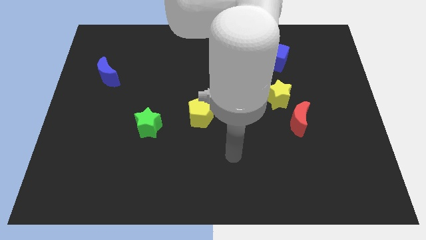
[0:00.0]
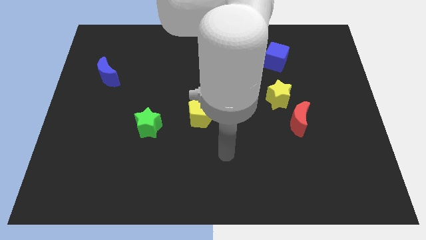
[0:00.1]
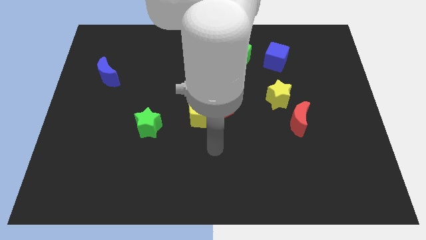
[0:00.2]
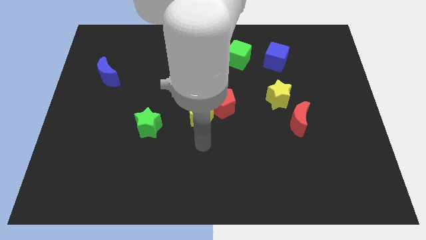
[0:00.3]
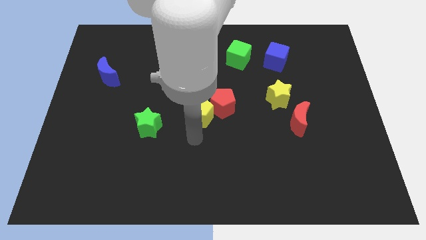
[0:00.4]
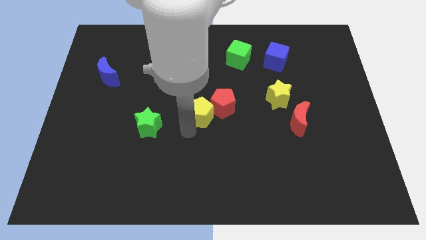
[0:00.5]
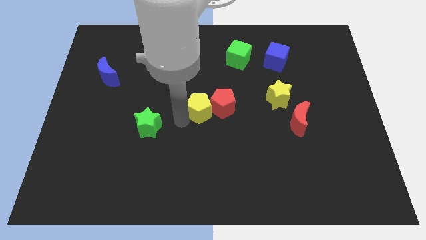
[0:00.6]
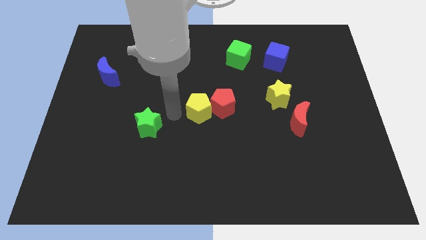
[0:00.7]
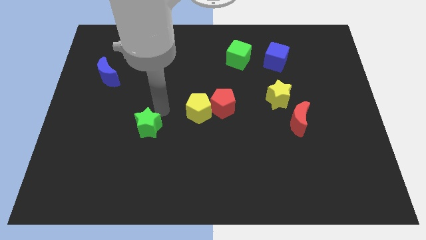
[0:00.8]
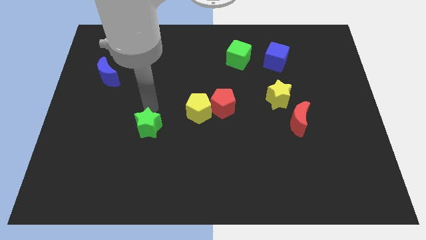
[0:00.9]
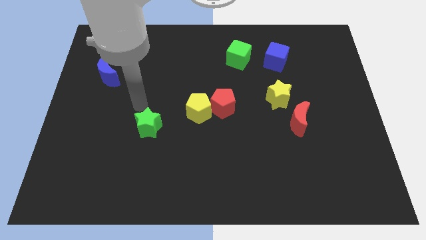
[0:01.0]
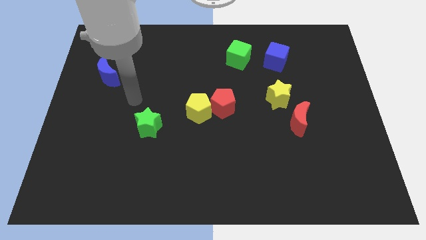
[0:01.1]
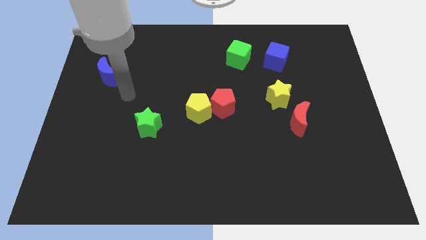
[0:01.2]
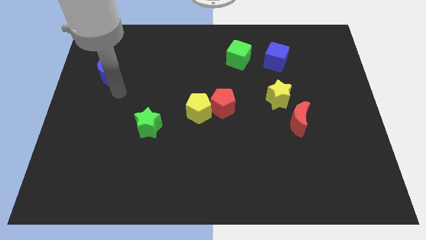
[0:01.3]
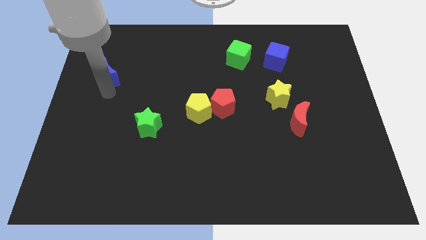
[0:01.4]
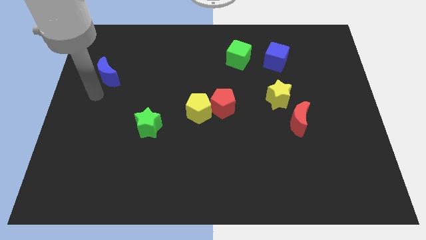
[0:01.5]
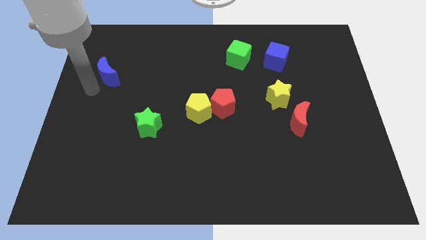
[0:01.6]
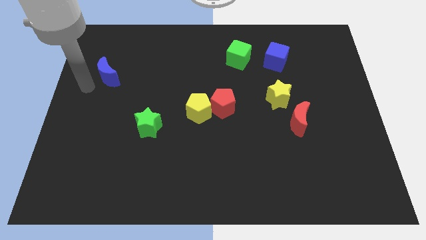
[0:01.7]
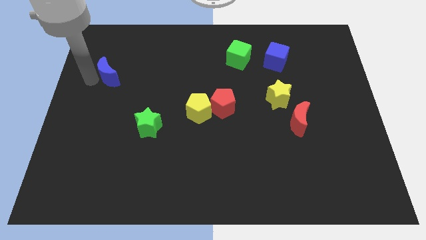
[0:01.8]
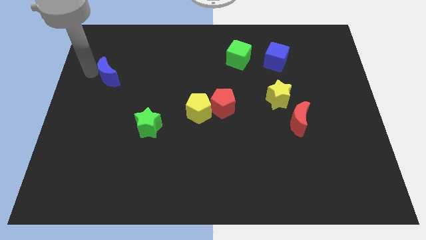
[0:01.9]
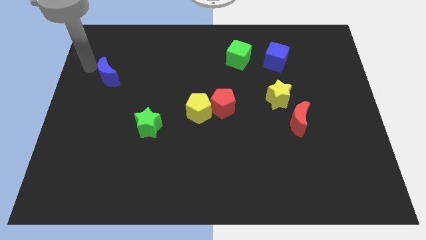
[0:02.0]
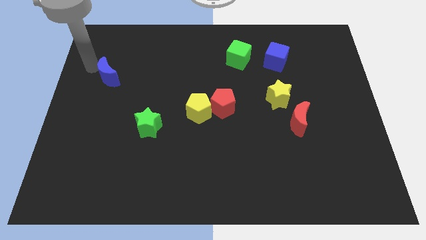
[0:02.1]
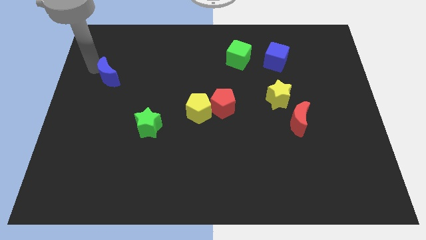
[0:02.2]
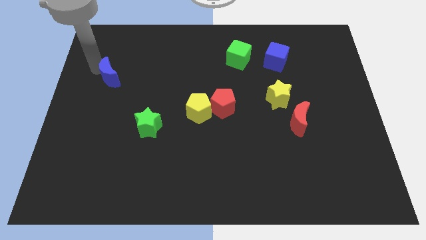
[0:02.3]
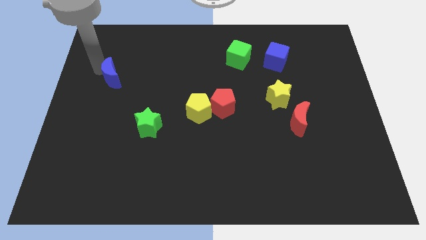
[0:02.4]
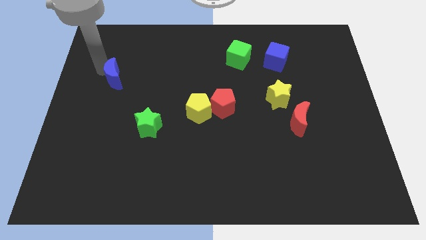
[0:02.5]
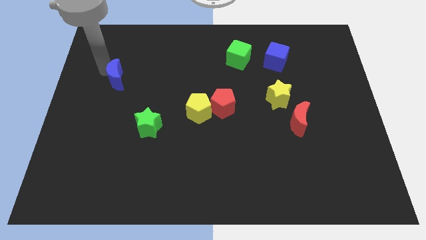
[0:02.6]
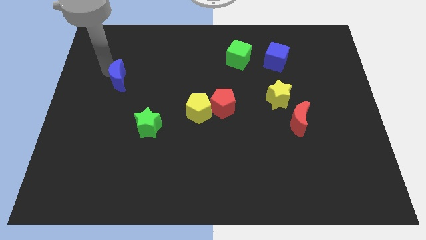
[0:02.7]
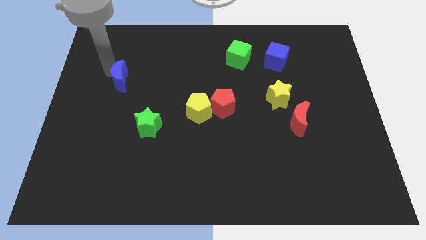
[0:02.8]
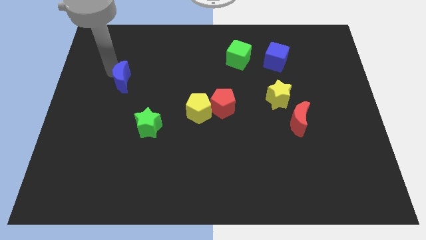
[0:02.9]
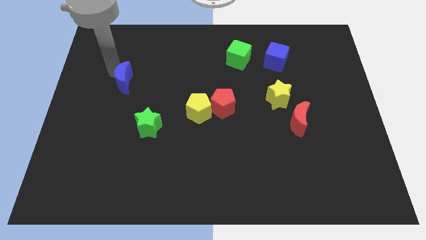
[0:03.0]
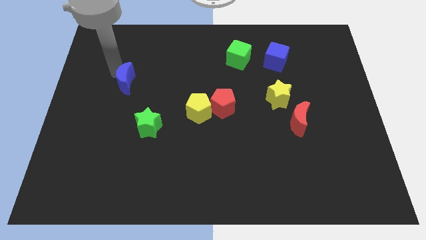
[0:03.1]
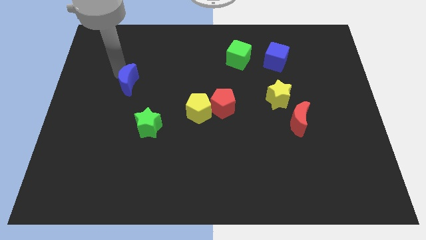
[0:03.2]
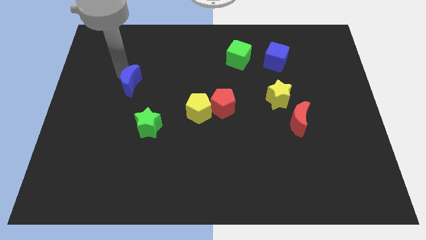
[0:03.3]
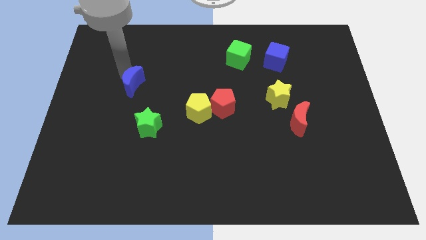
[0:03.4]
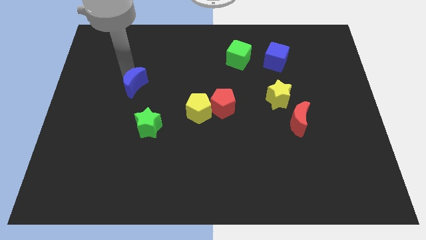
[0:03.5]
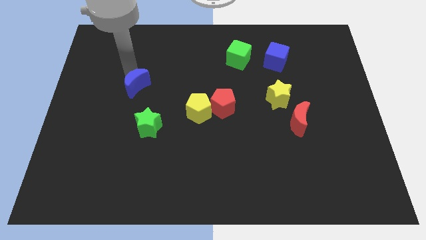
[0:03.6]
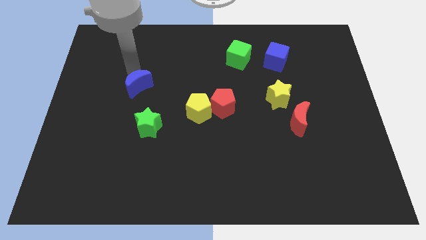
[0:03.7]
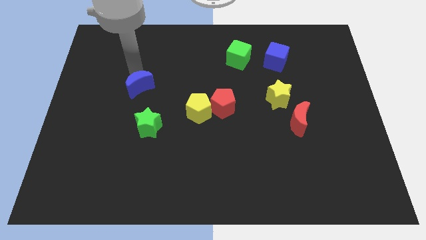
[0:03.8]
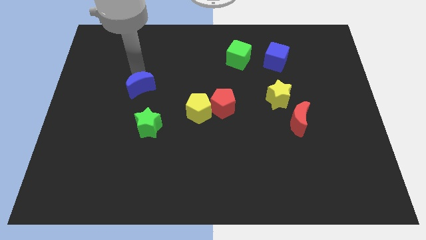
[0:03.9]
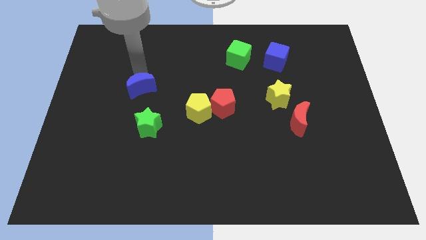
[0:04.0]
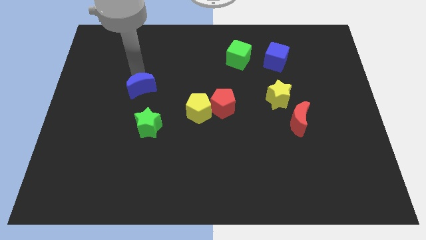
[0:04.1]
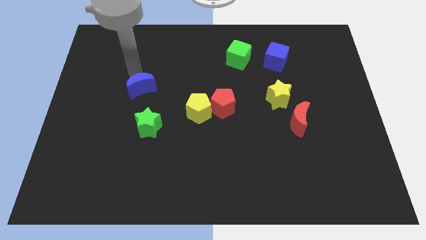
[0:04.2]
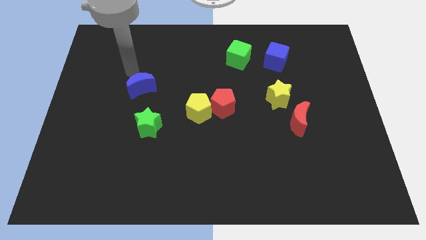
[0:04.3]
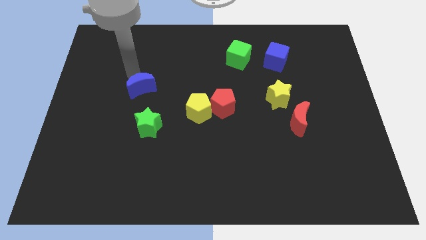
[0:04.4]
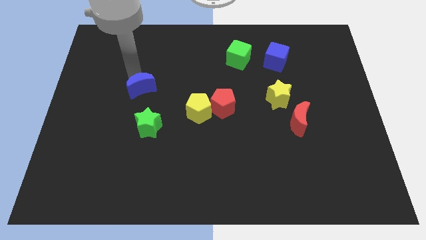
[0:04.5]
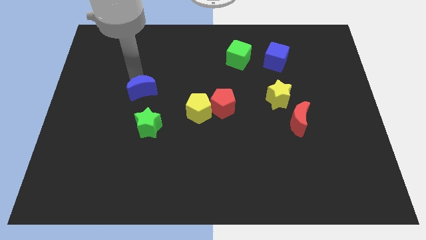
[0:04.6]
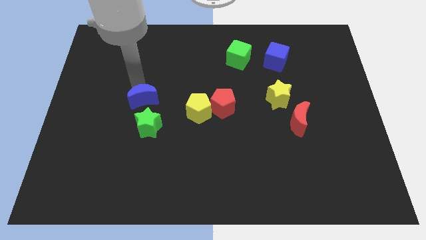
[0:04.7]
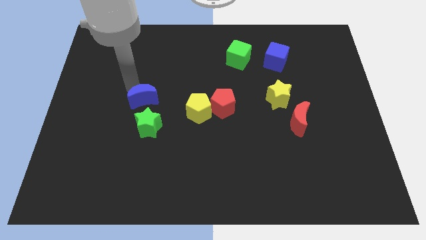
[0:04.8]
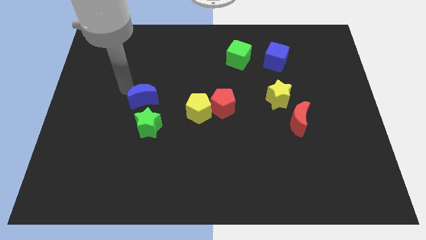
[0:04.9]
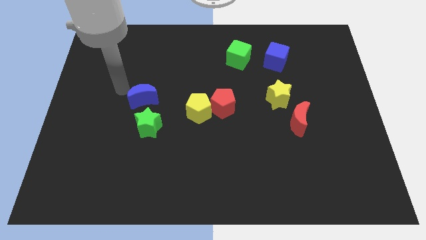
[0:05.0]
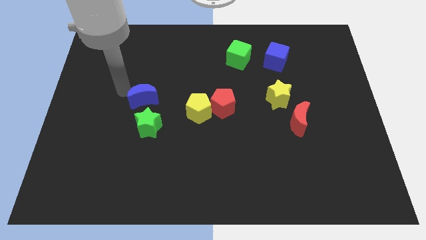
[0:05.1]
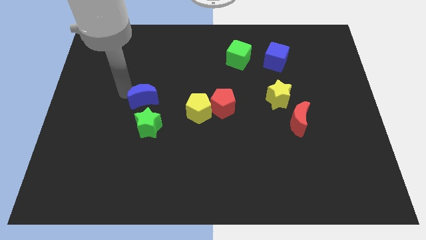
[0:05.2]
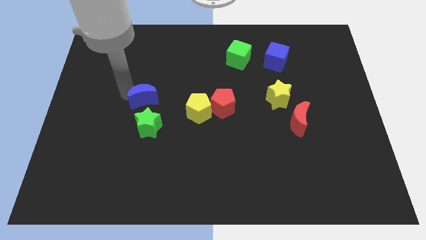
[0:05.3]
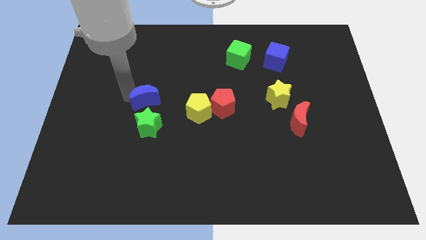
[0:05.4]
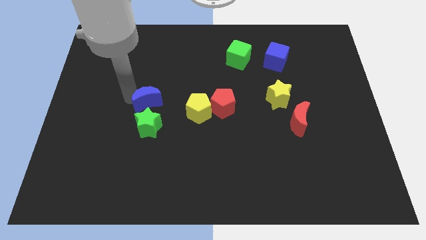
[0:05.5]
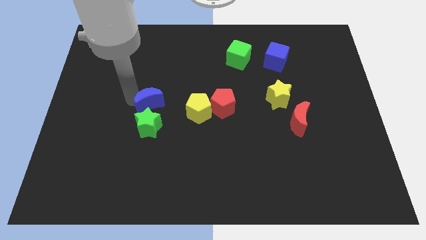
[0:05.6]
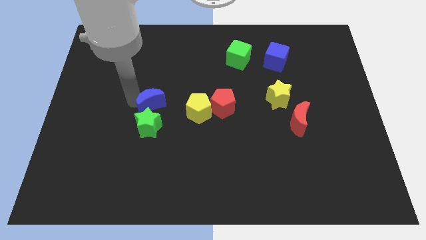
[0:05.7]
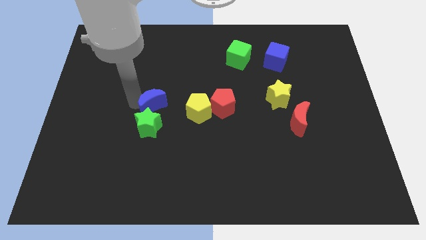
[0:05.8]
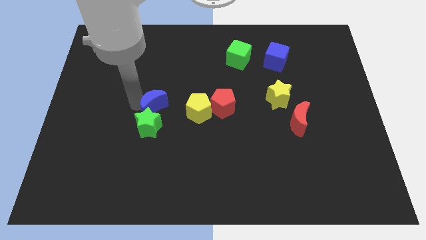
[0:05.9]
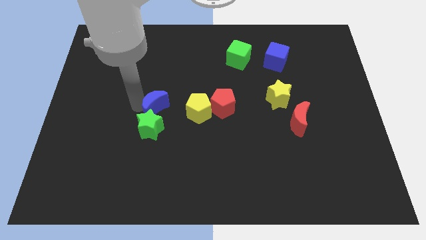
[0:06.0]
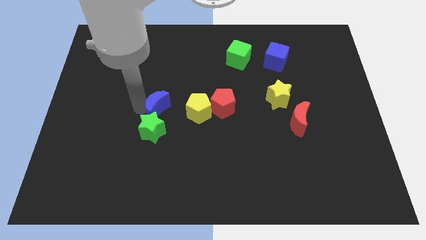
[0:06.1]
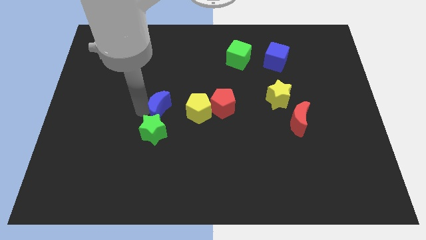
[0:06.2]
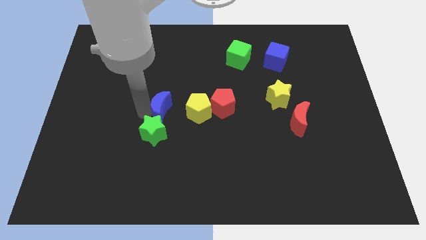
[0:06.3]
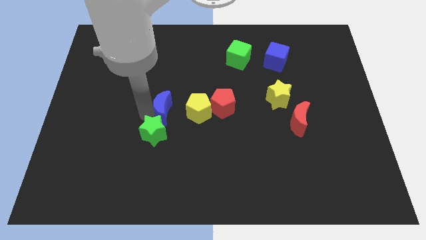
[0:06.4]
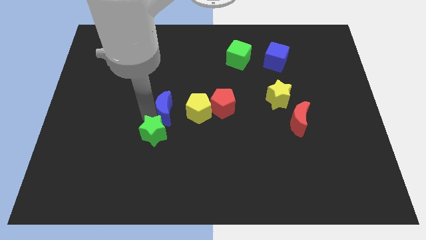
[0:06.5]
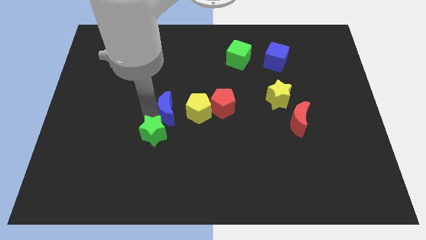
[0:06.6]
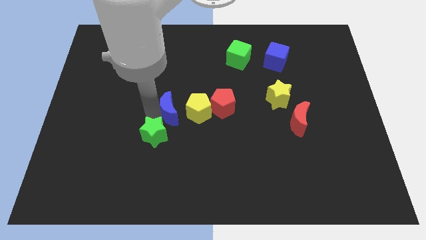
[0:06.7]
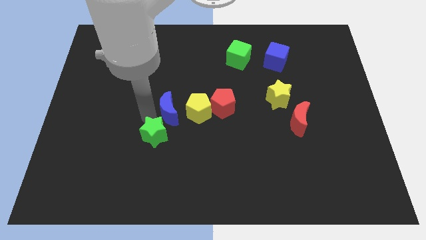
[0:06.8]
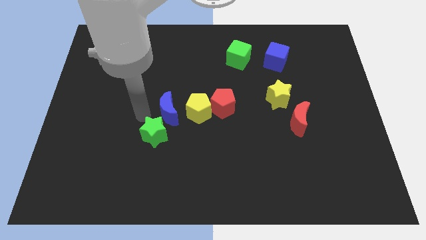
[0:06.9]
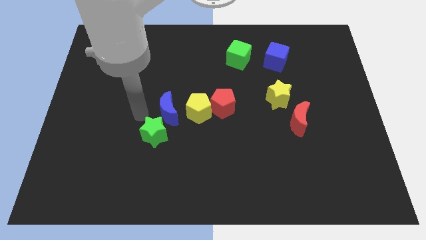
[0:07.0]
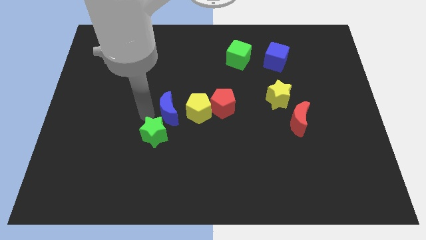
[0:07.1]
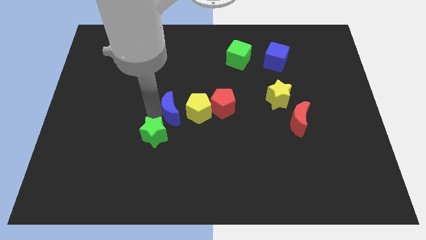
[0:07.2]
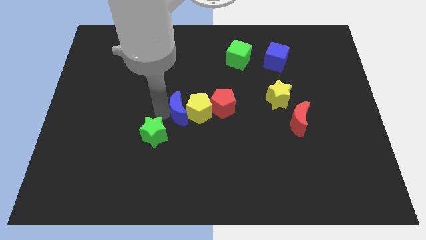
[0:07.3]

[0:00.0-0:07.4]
slide the blue moon to the yellow pentagon
